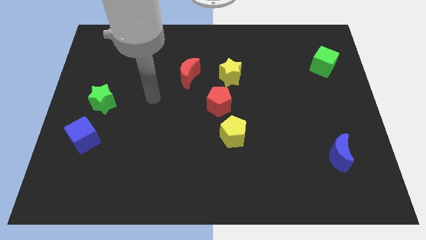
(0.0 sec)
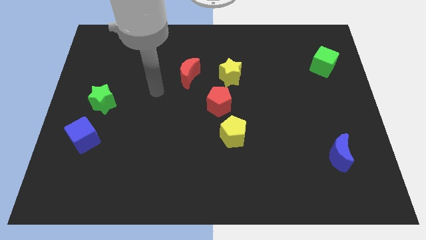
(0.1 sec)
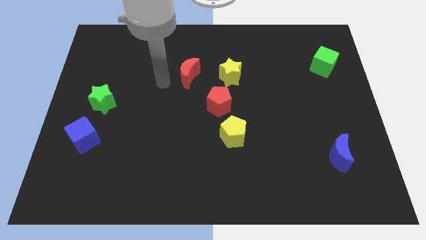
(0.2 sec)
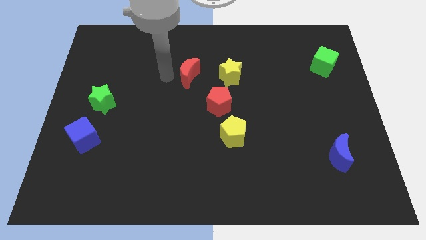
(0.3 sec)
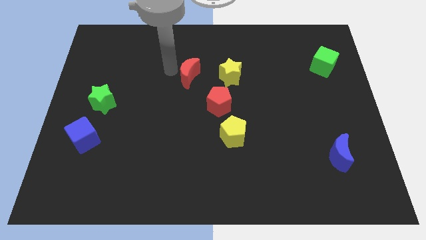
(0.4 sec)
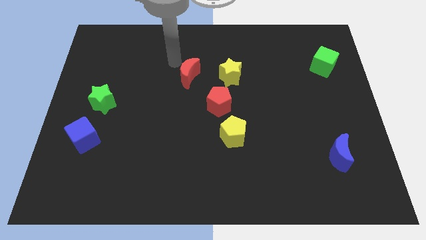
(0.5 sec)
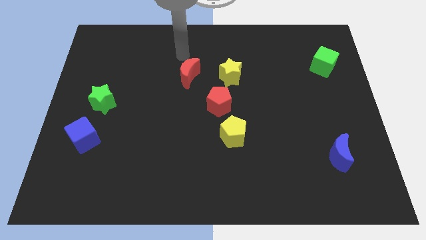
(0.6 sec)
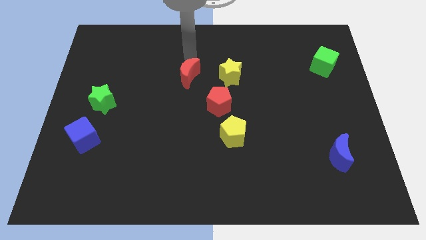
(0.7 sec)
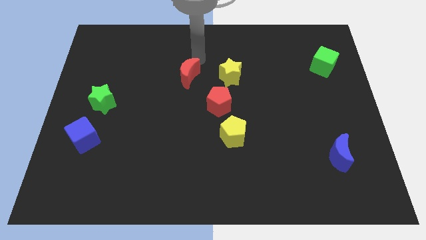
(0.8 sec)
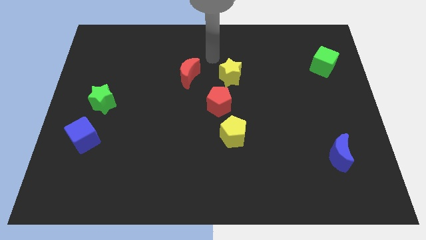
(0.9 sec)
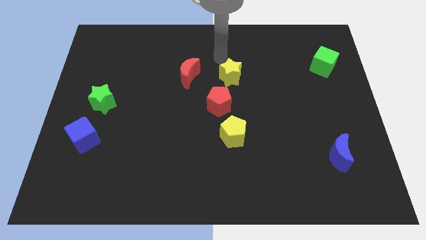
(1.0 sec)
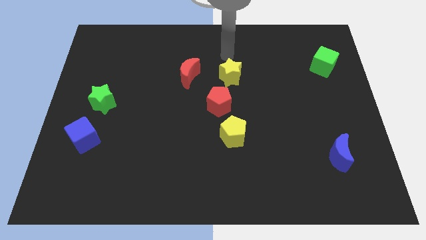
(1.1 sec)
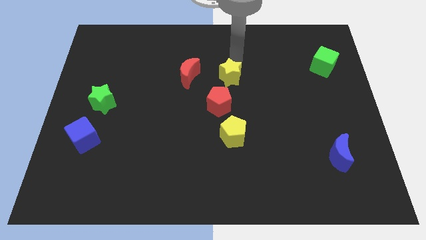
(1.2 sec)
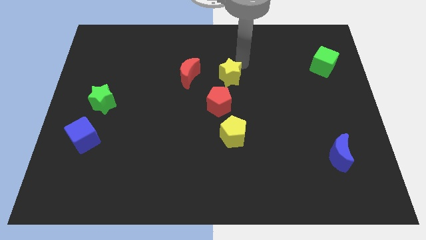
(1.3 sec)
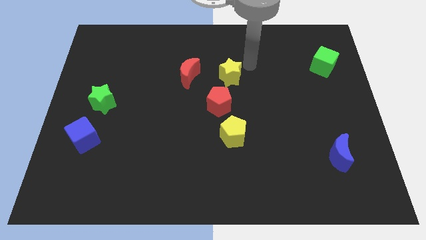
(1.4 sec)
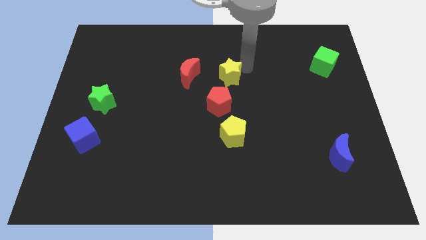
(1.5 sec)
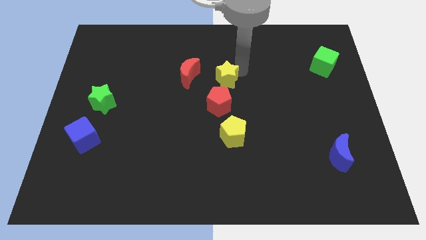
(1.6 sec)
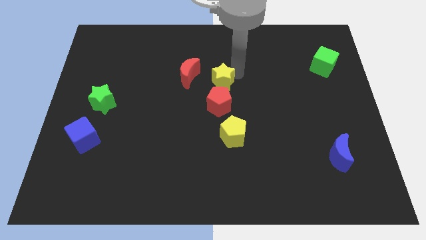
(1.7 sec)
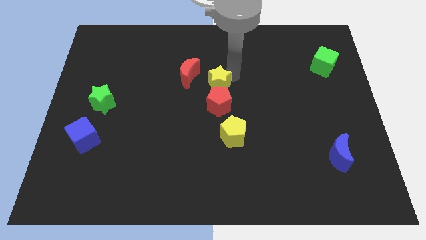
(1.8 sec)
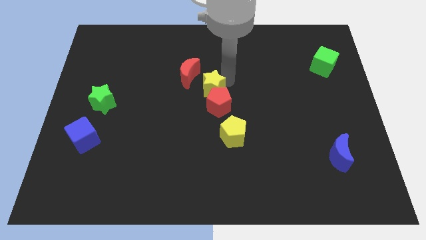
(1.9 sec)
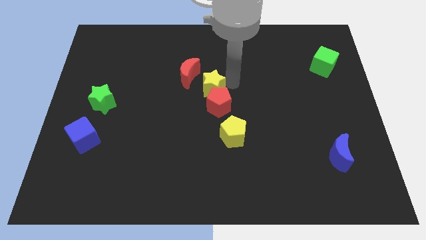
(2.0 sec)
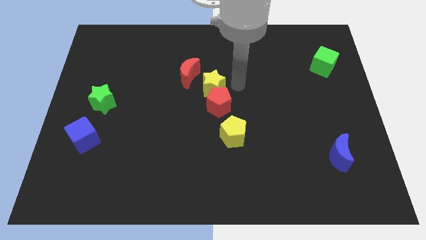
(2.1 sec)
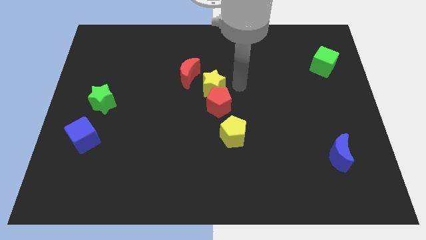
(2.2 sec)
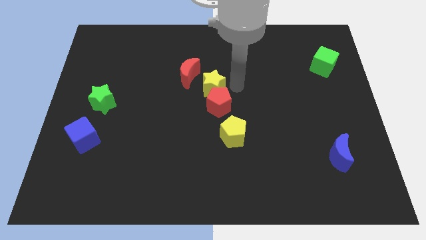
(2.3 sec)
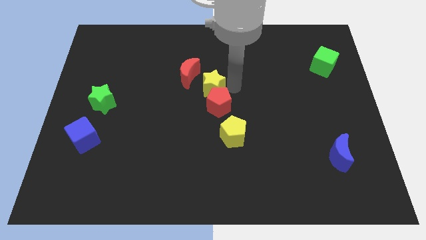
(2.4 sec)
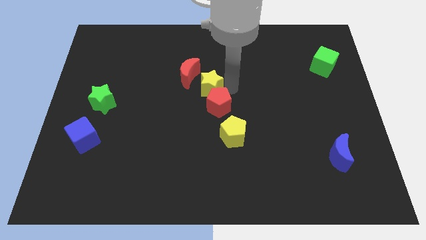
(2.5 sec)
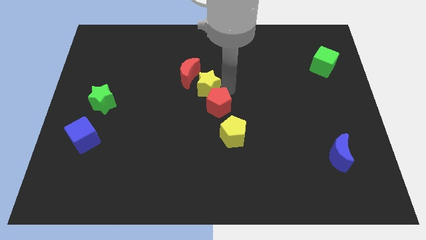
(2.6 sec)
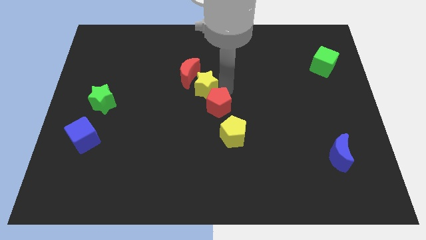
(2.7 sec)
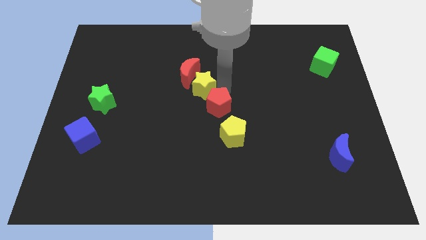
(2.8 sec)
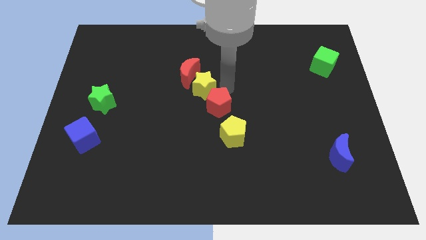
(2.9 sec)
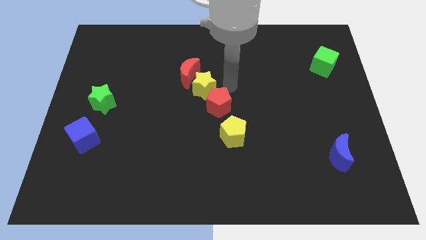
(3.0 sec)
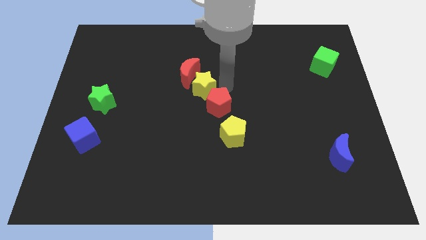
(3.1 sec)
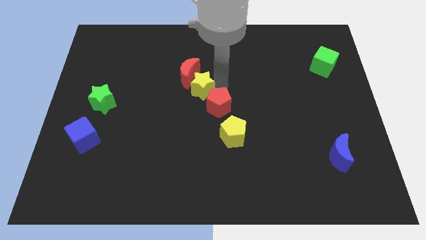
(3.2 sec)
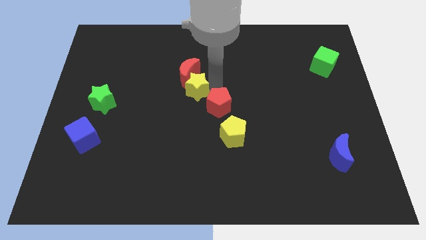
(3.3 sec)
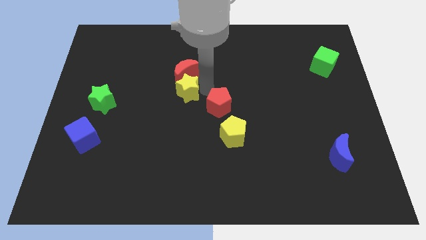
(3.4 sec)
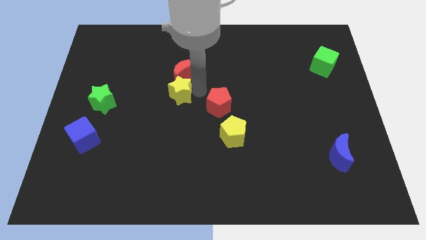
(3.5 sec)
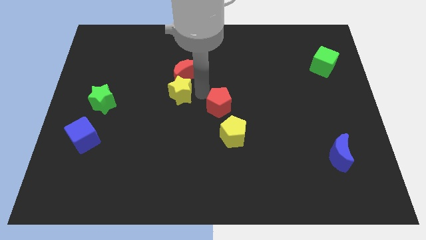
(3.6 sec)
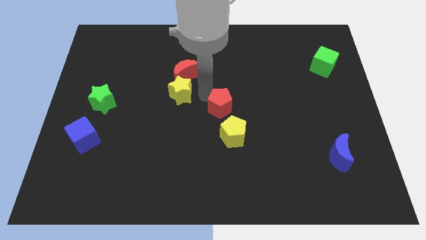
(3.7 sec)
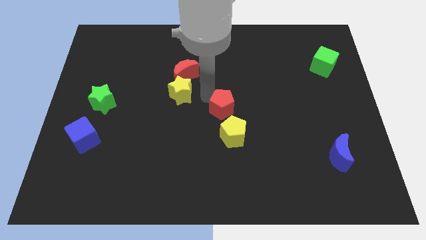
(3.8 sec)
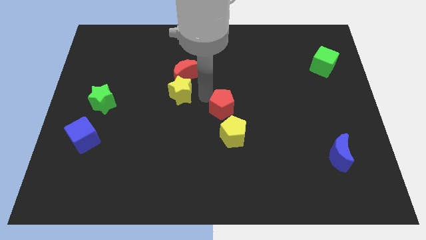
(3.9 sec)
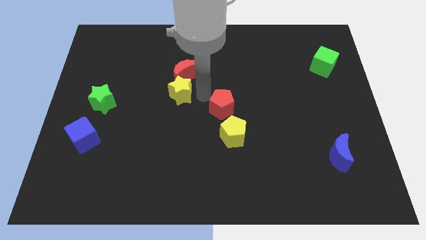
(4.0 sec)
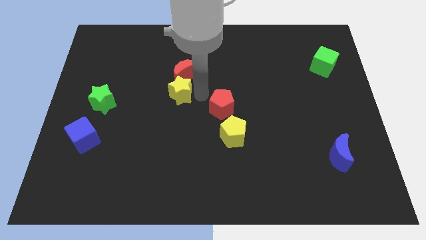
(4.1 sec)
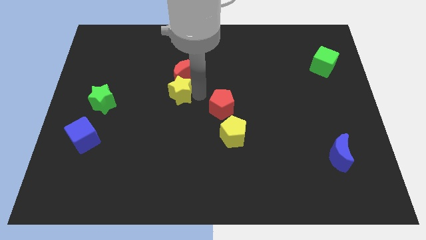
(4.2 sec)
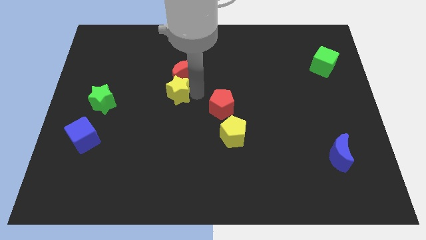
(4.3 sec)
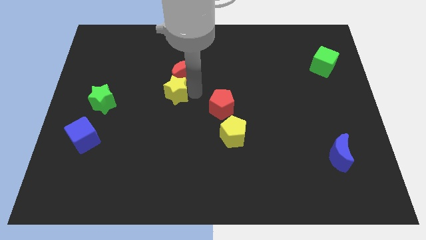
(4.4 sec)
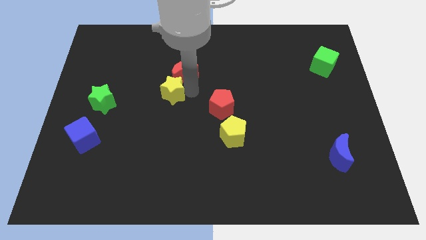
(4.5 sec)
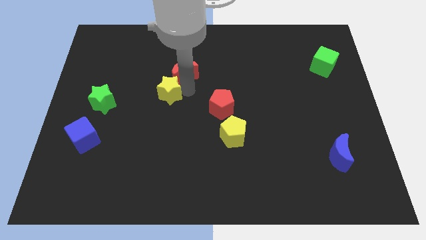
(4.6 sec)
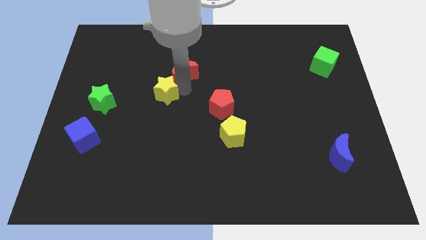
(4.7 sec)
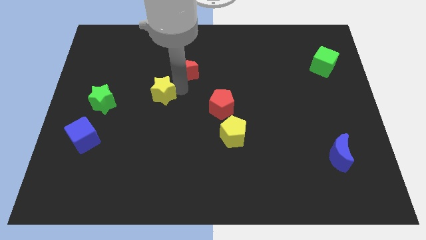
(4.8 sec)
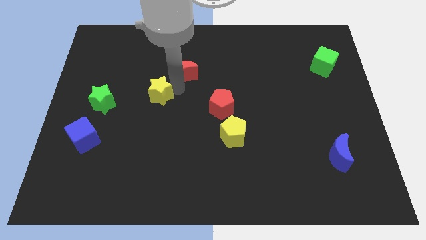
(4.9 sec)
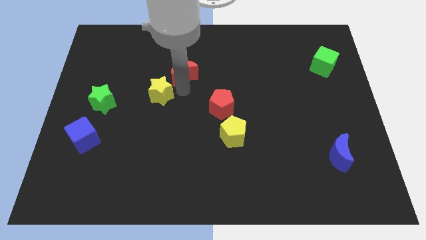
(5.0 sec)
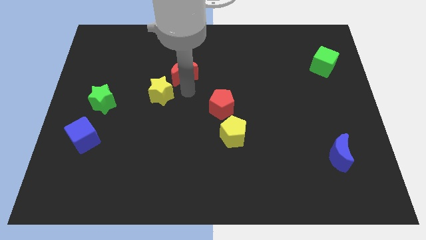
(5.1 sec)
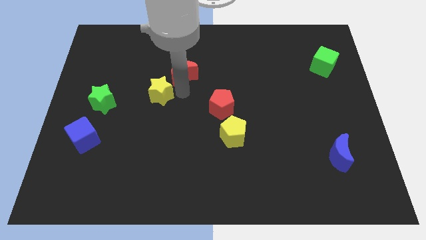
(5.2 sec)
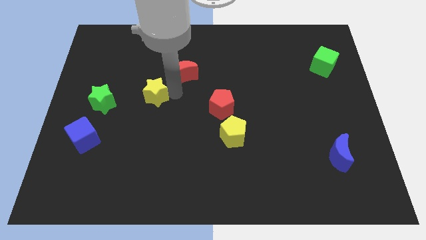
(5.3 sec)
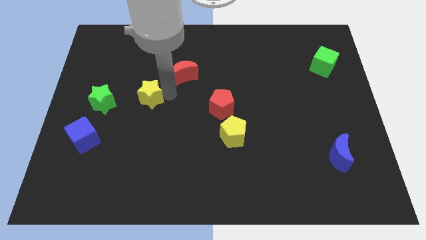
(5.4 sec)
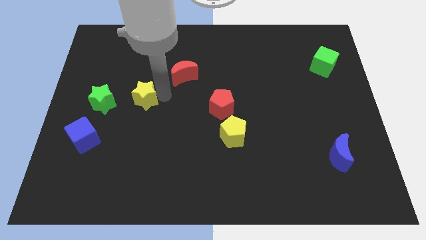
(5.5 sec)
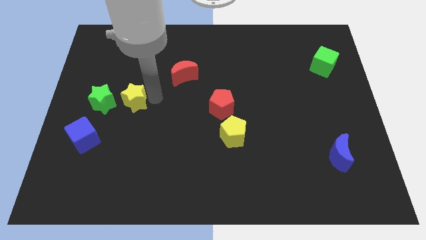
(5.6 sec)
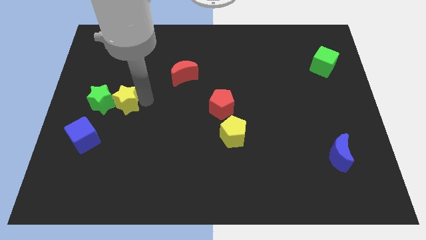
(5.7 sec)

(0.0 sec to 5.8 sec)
push the yellow star next to the green star

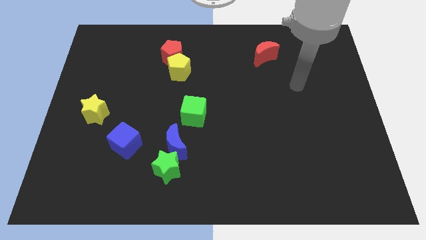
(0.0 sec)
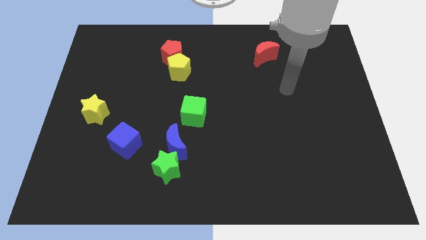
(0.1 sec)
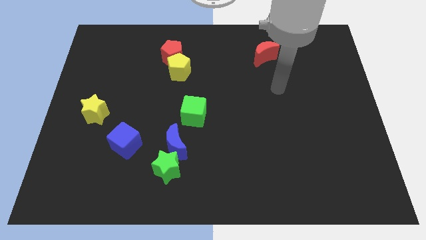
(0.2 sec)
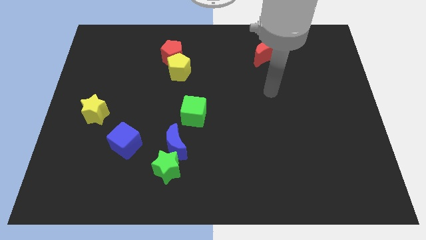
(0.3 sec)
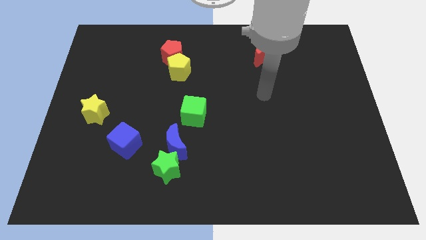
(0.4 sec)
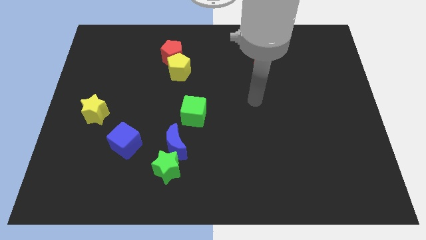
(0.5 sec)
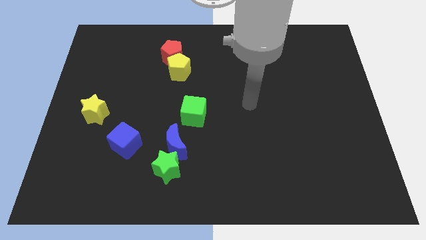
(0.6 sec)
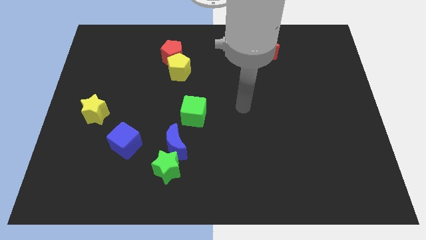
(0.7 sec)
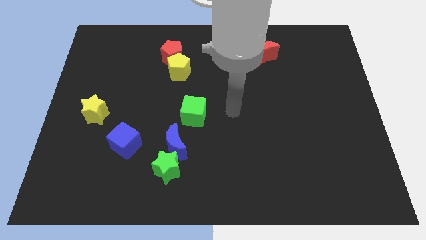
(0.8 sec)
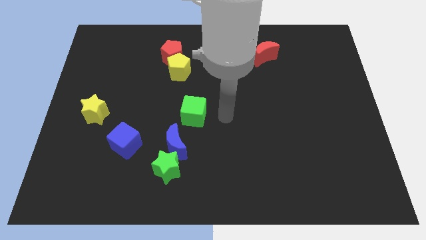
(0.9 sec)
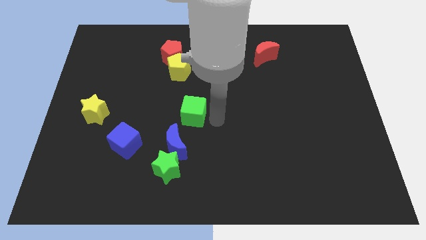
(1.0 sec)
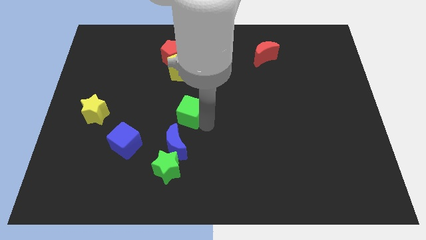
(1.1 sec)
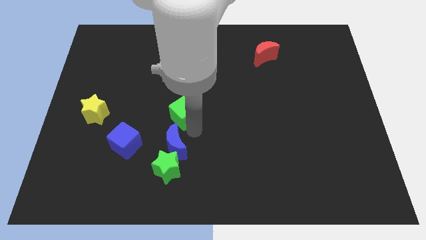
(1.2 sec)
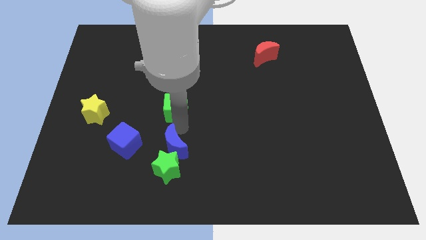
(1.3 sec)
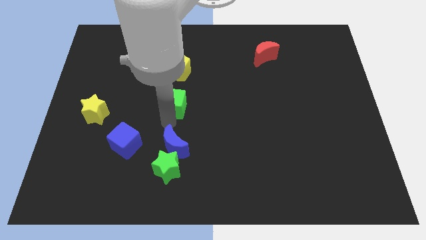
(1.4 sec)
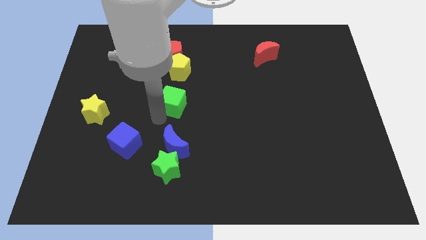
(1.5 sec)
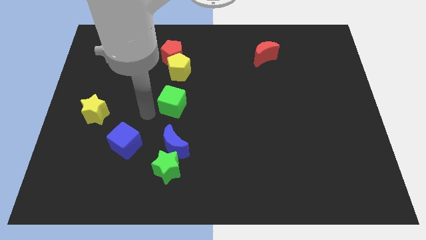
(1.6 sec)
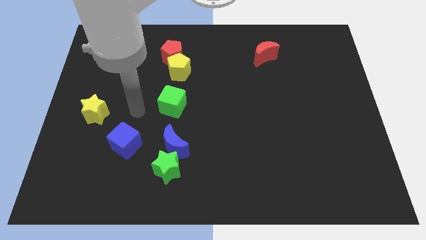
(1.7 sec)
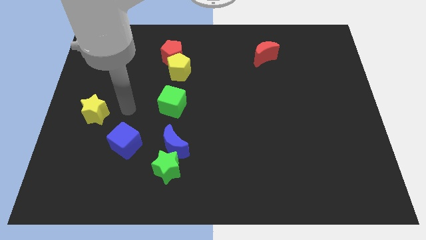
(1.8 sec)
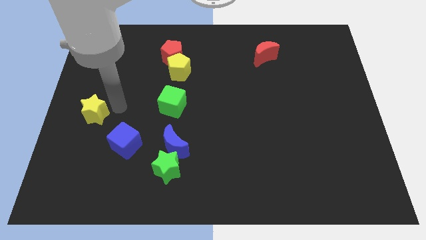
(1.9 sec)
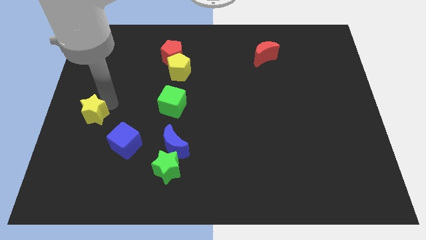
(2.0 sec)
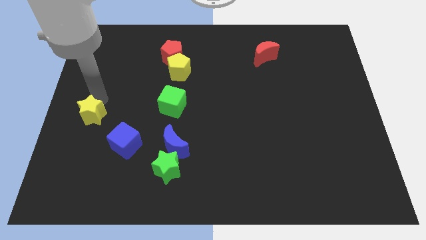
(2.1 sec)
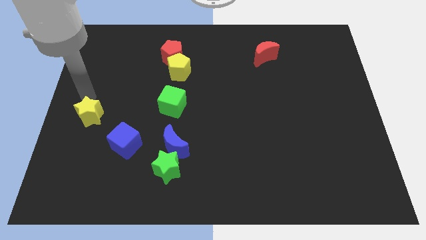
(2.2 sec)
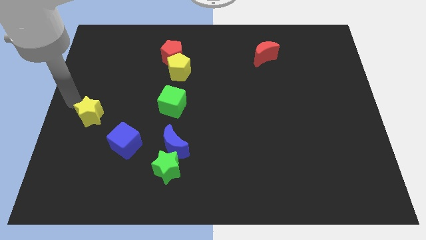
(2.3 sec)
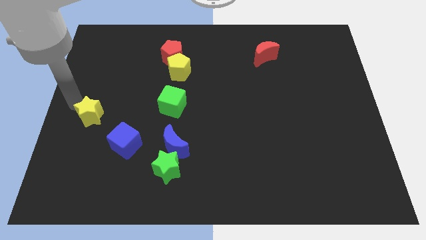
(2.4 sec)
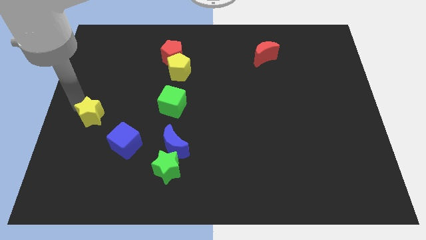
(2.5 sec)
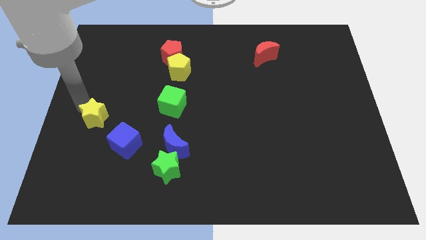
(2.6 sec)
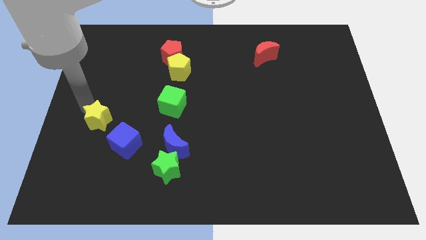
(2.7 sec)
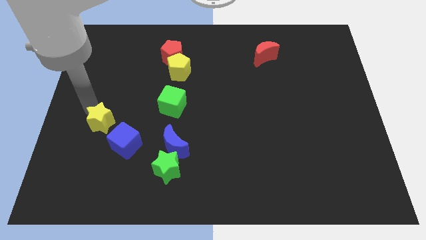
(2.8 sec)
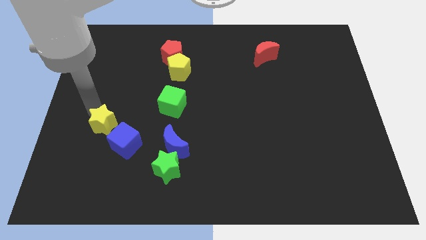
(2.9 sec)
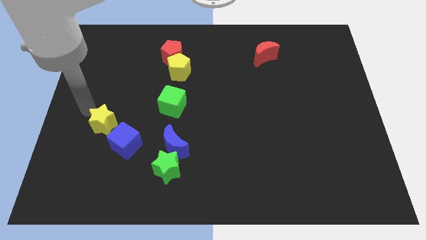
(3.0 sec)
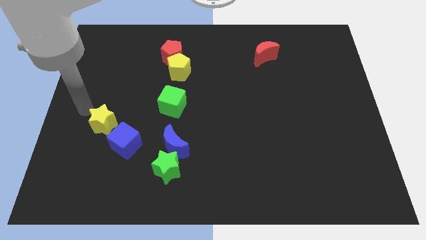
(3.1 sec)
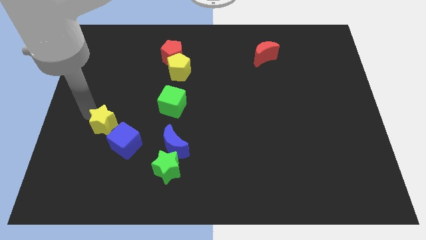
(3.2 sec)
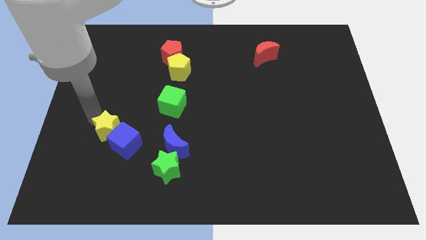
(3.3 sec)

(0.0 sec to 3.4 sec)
put the yellow star close to the blue cube
